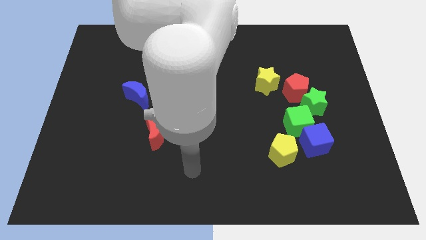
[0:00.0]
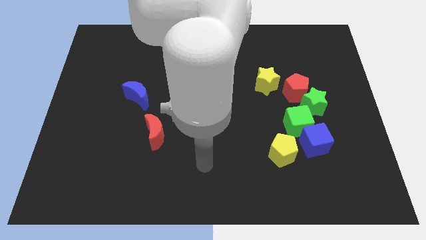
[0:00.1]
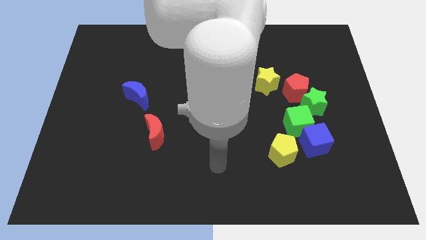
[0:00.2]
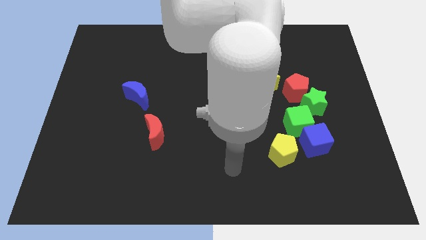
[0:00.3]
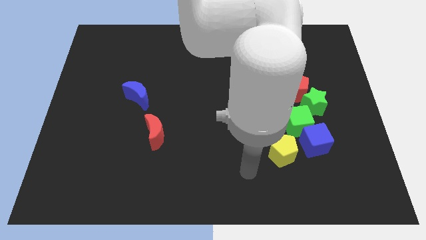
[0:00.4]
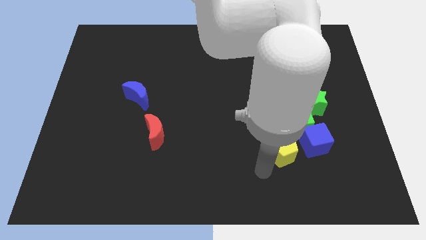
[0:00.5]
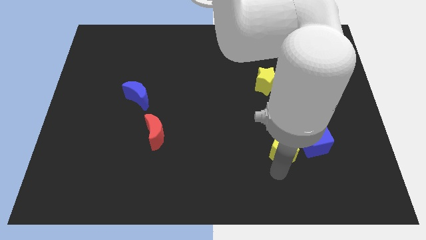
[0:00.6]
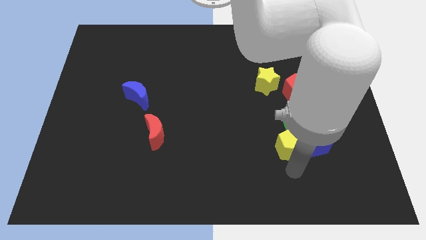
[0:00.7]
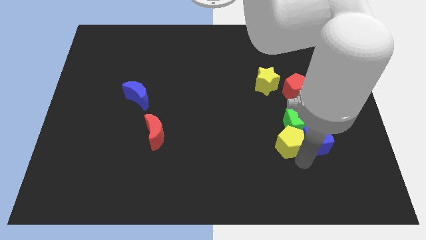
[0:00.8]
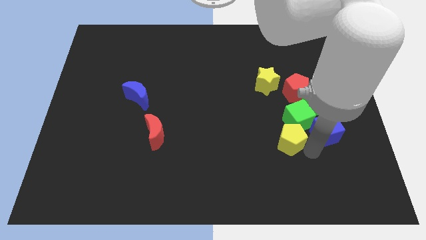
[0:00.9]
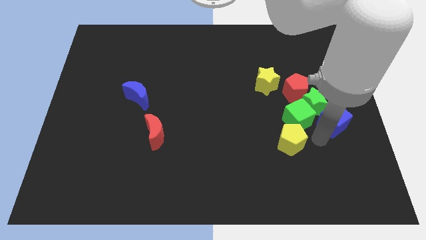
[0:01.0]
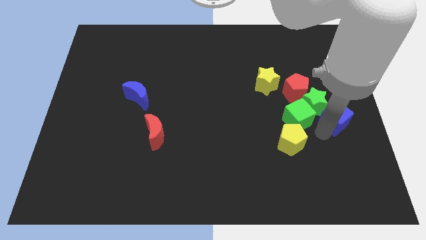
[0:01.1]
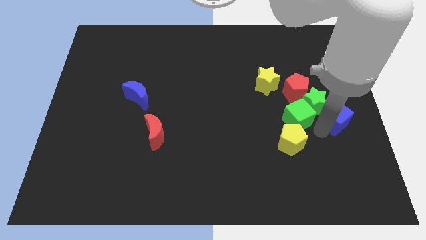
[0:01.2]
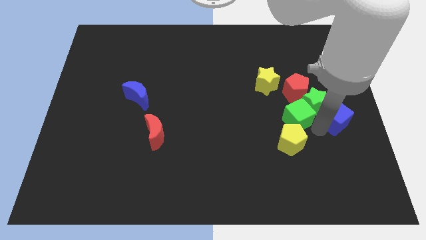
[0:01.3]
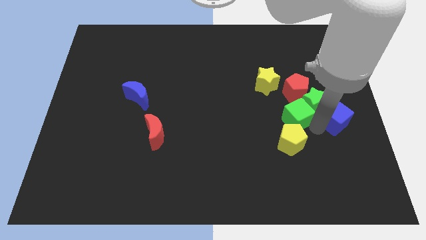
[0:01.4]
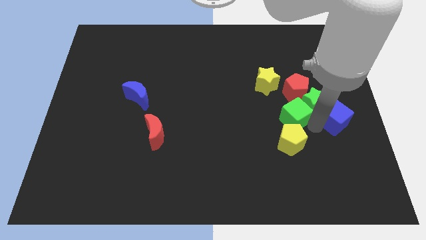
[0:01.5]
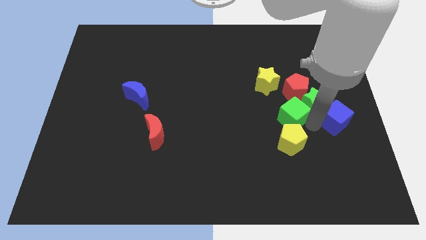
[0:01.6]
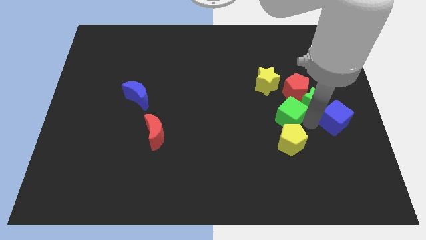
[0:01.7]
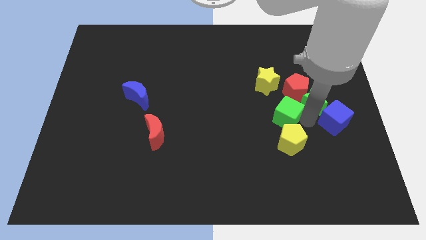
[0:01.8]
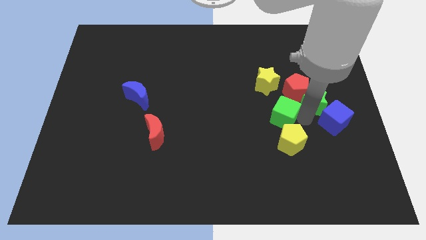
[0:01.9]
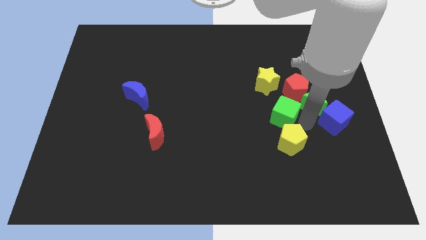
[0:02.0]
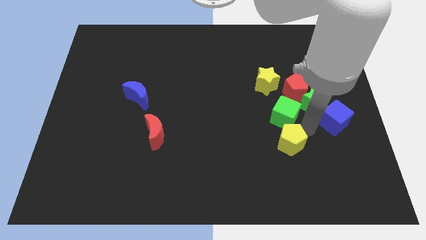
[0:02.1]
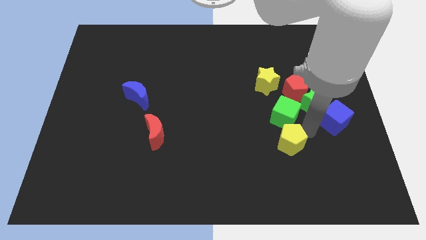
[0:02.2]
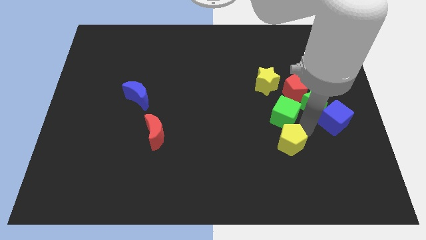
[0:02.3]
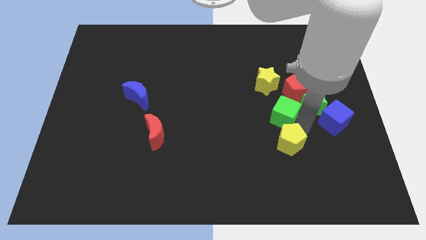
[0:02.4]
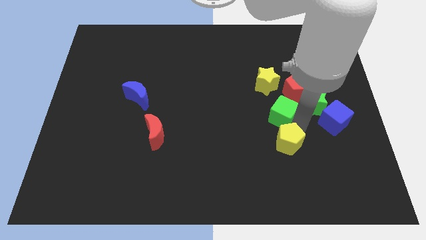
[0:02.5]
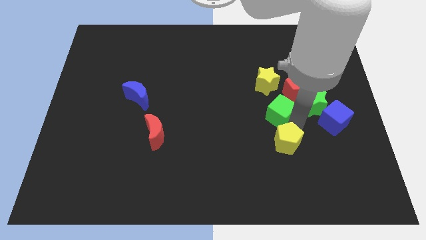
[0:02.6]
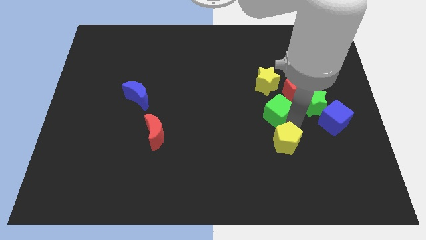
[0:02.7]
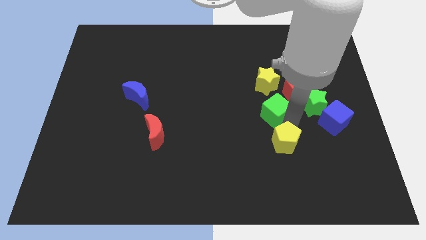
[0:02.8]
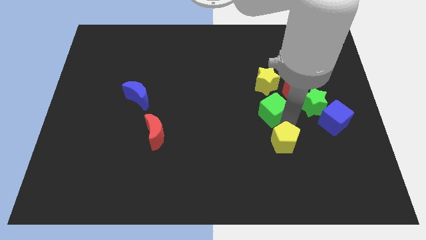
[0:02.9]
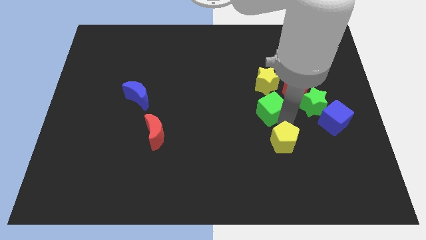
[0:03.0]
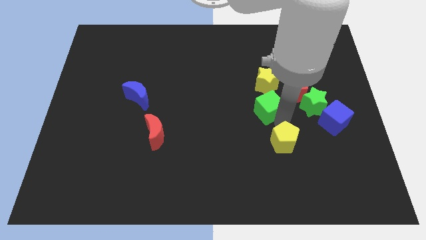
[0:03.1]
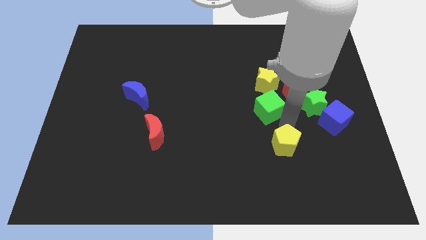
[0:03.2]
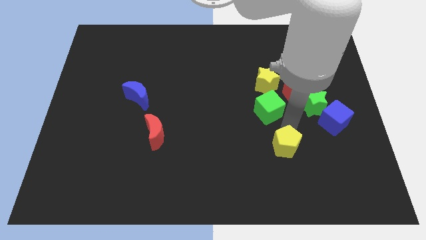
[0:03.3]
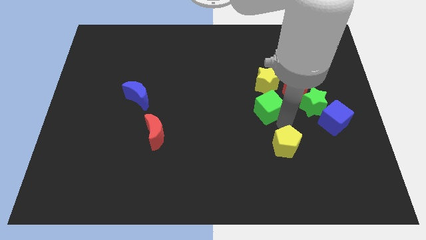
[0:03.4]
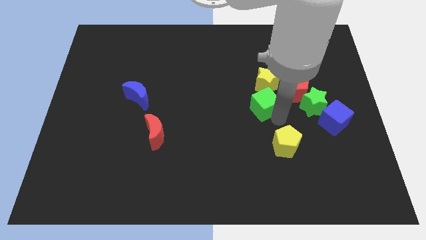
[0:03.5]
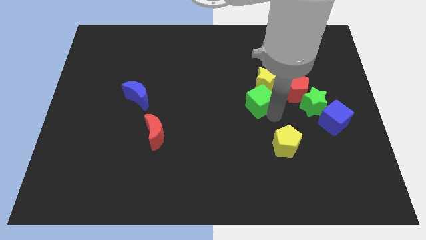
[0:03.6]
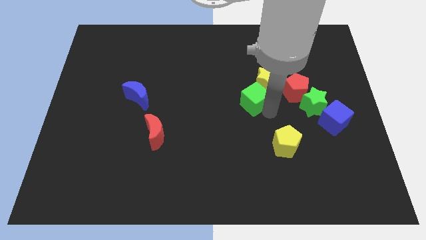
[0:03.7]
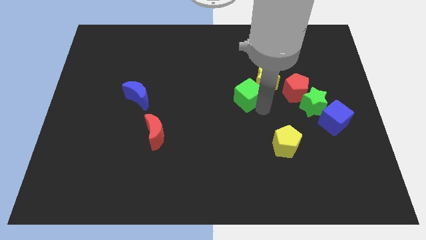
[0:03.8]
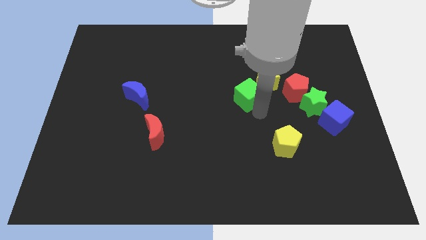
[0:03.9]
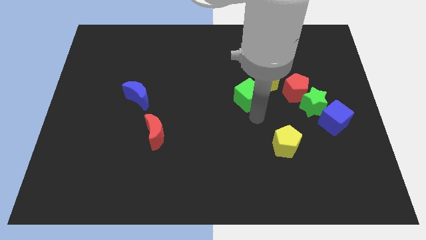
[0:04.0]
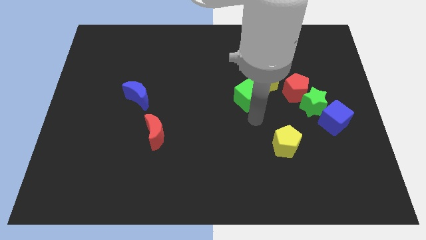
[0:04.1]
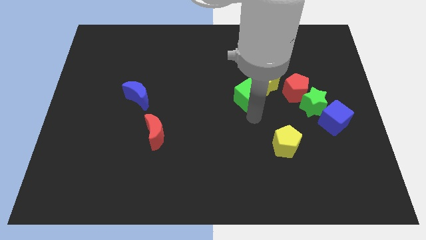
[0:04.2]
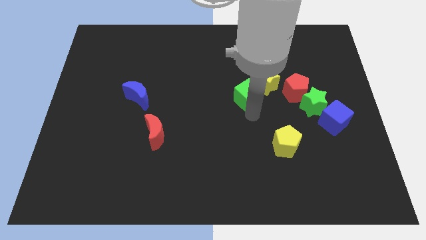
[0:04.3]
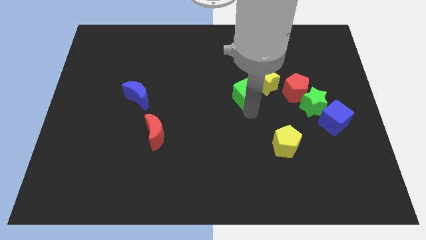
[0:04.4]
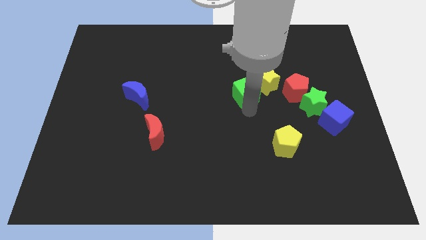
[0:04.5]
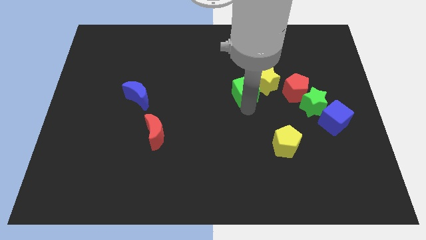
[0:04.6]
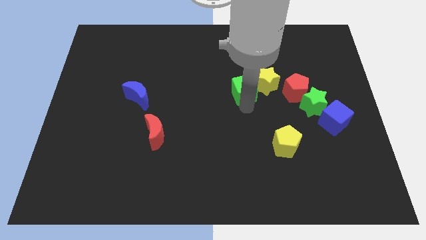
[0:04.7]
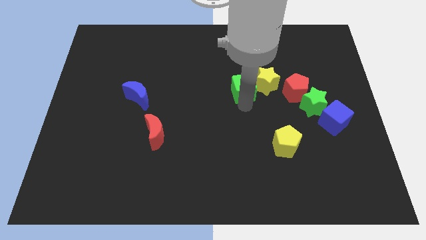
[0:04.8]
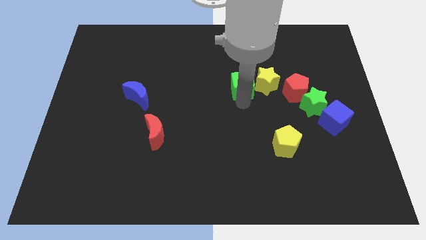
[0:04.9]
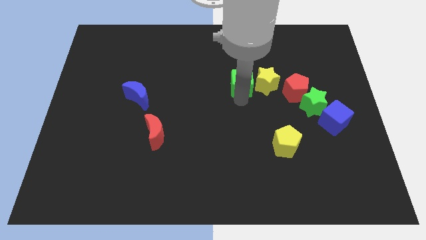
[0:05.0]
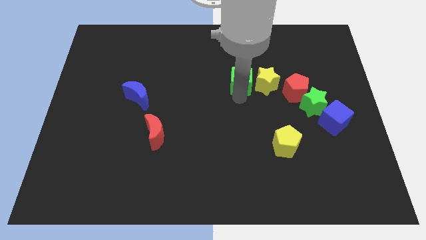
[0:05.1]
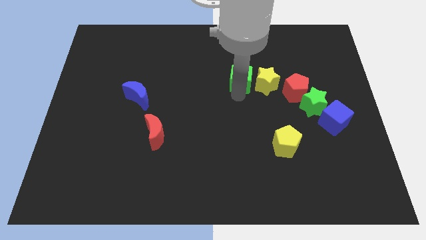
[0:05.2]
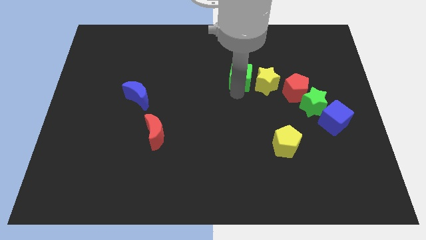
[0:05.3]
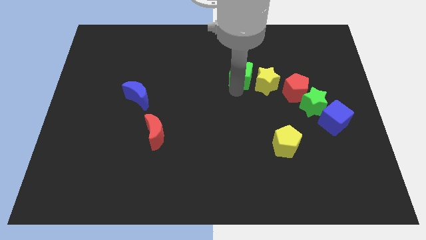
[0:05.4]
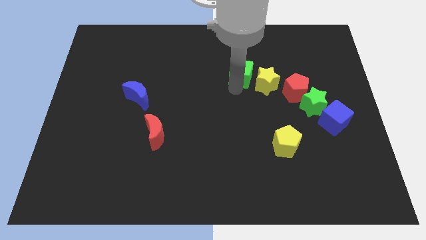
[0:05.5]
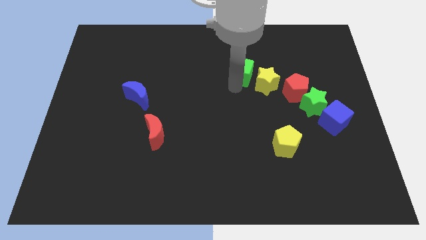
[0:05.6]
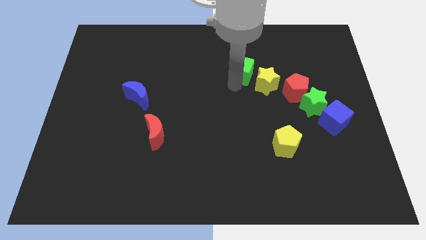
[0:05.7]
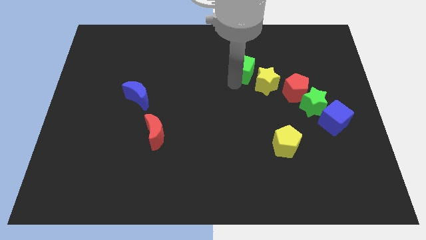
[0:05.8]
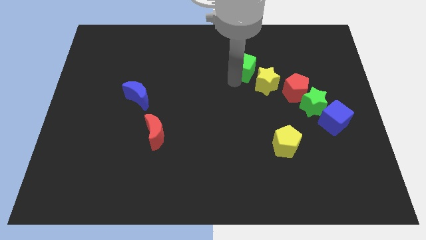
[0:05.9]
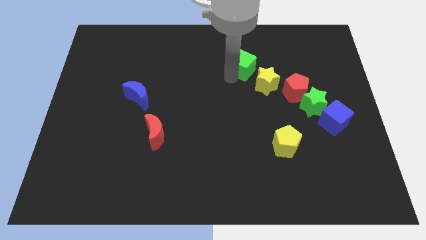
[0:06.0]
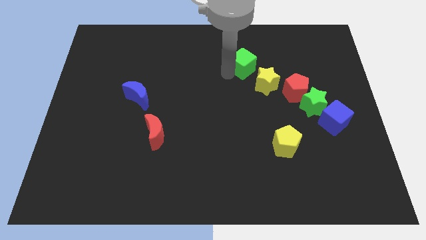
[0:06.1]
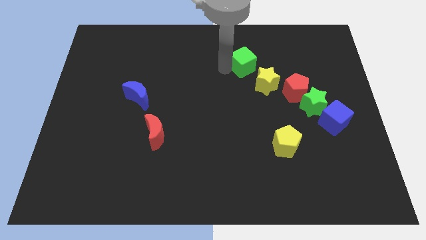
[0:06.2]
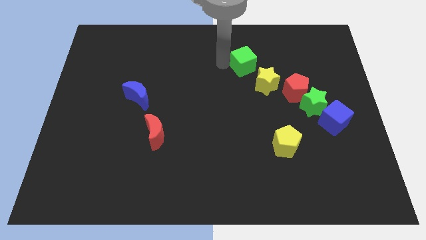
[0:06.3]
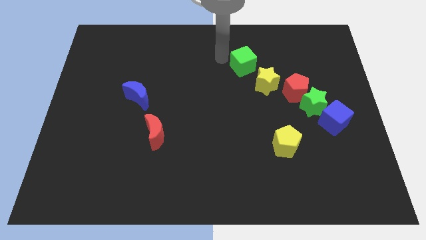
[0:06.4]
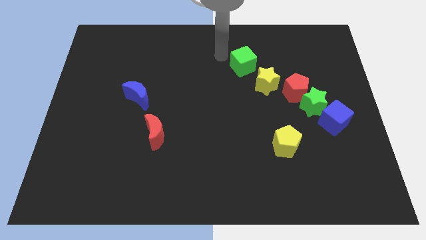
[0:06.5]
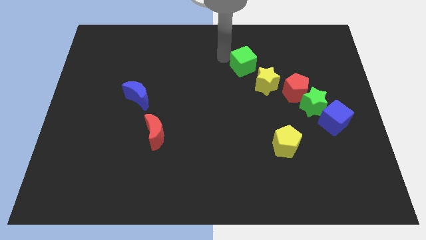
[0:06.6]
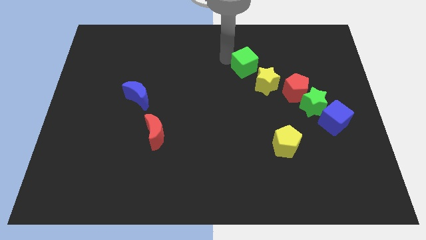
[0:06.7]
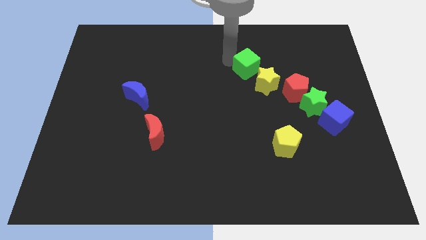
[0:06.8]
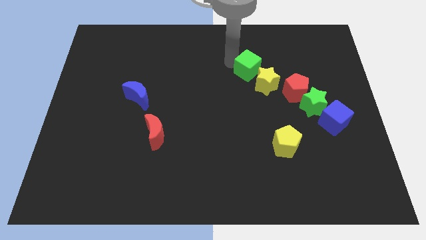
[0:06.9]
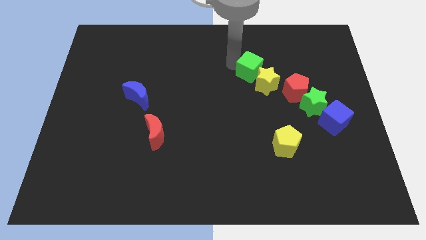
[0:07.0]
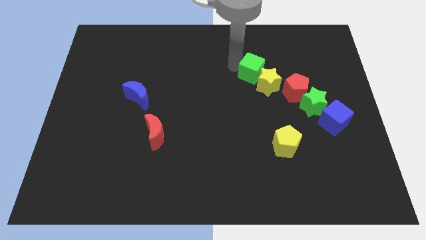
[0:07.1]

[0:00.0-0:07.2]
put the green cube to the top left of the red pentagon

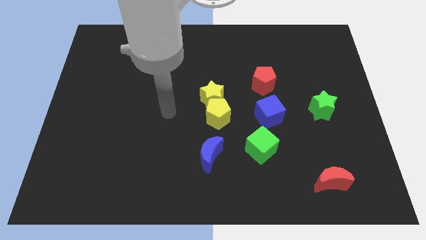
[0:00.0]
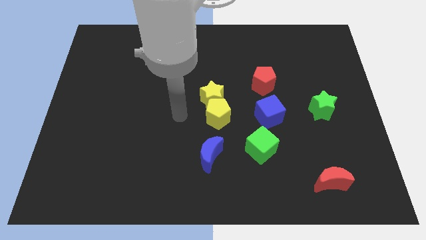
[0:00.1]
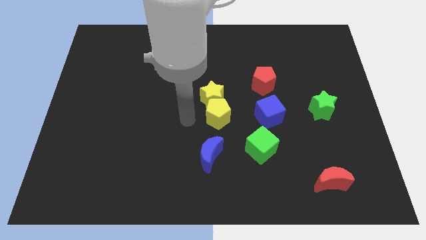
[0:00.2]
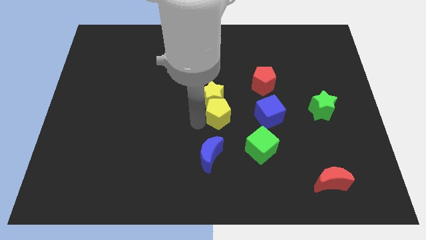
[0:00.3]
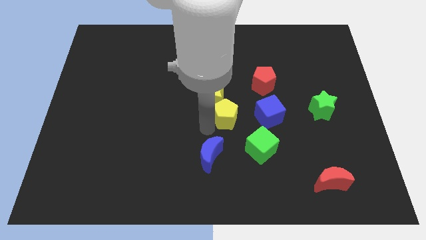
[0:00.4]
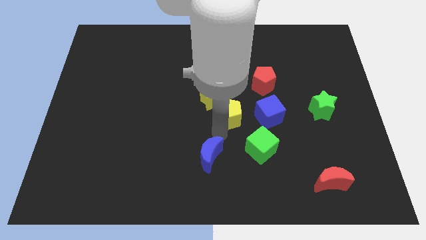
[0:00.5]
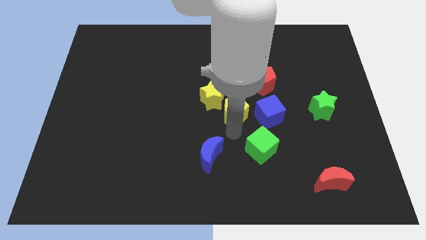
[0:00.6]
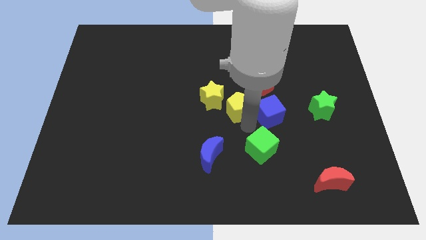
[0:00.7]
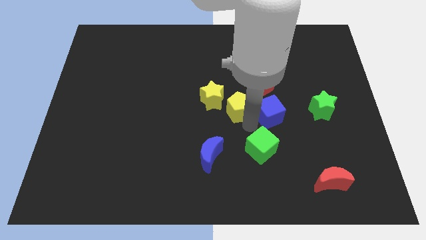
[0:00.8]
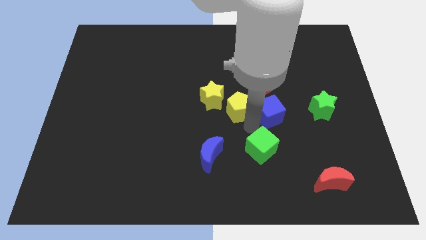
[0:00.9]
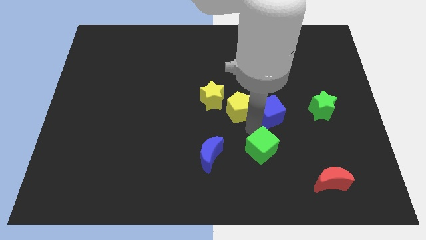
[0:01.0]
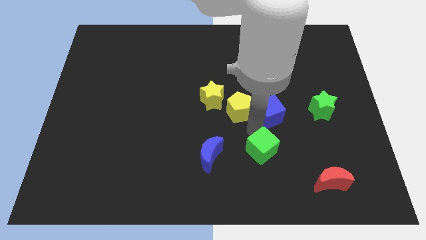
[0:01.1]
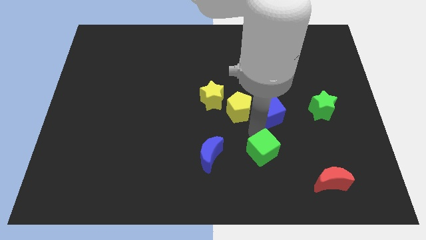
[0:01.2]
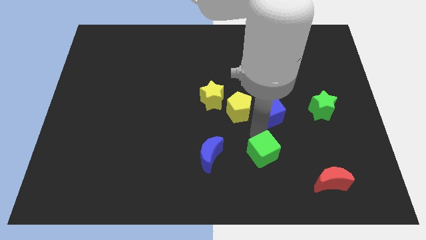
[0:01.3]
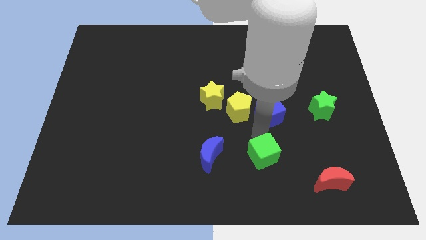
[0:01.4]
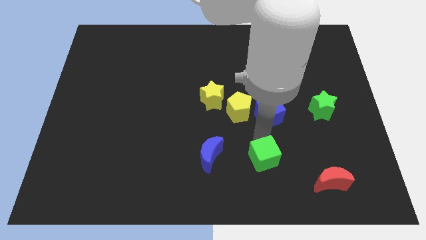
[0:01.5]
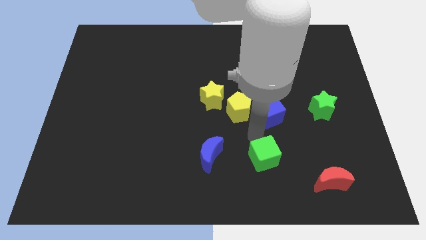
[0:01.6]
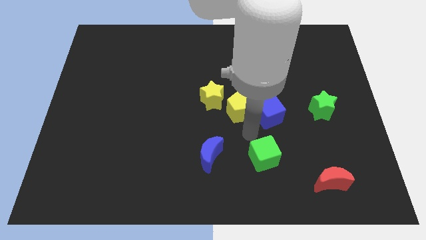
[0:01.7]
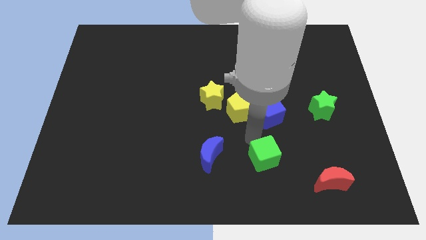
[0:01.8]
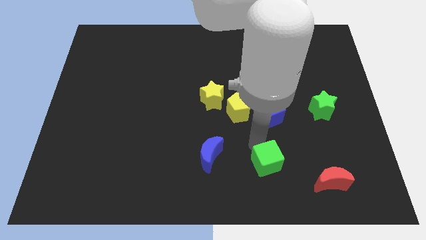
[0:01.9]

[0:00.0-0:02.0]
push the green cube left of the red moon
